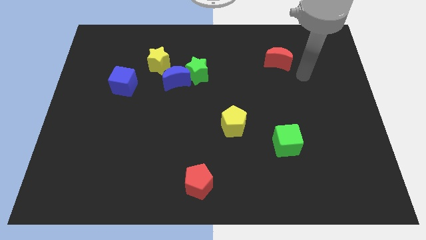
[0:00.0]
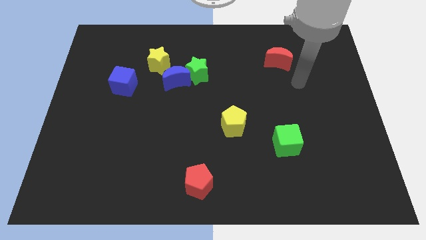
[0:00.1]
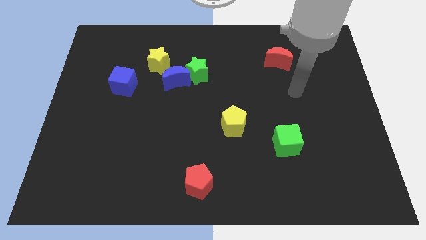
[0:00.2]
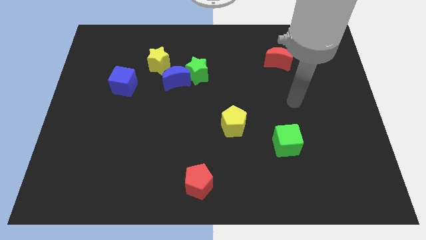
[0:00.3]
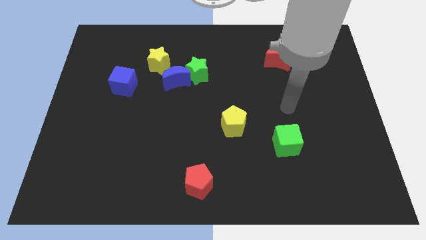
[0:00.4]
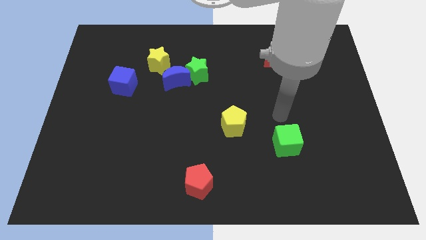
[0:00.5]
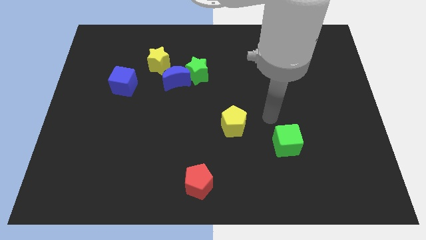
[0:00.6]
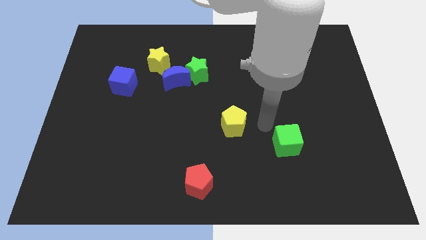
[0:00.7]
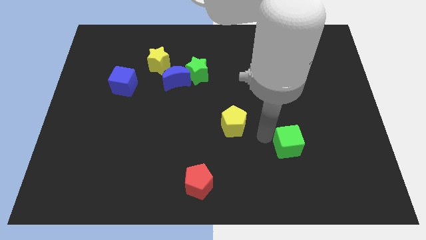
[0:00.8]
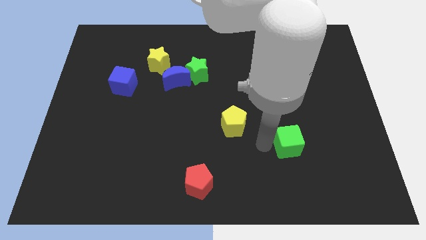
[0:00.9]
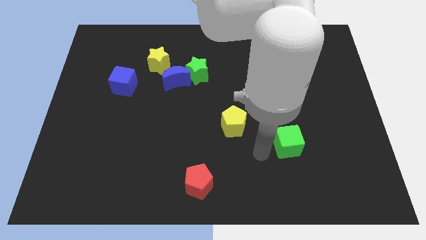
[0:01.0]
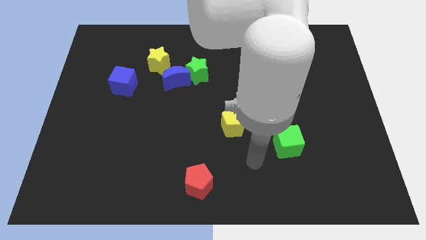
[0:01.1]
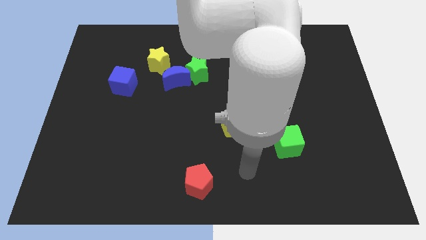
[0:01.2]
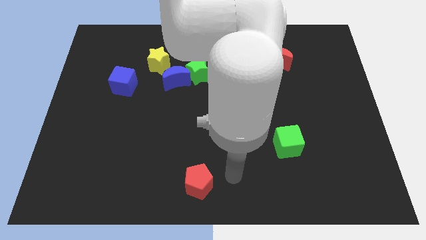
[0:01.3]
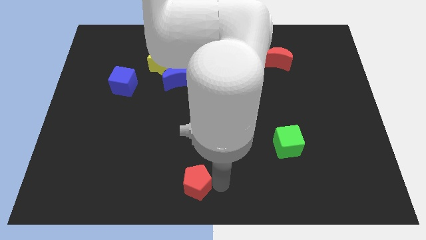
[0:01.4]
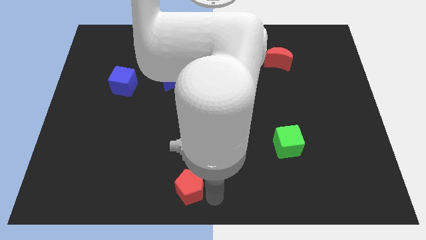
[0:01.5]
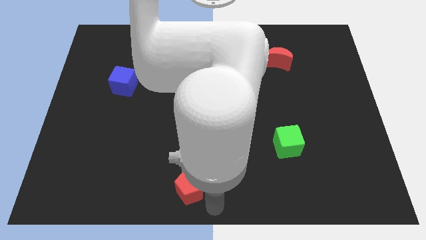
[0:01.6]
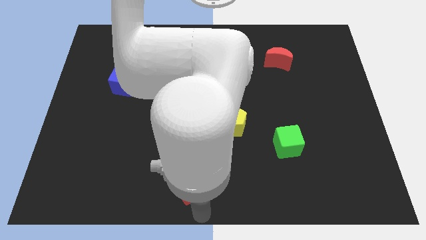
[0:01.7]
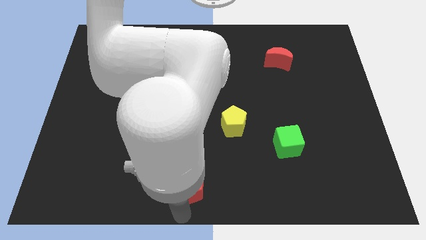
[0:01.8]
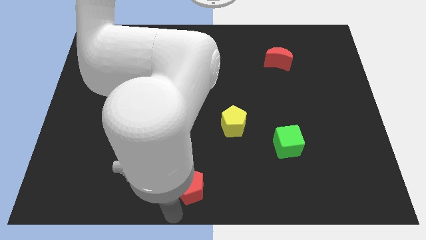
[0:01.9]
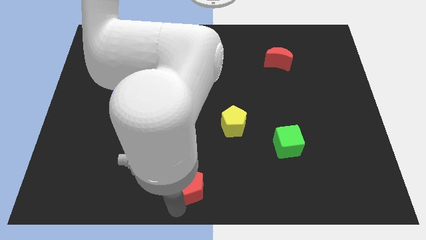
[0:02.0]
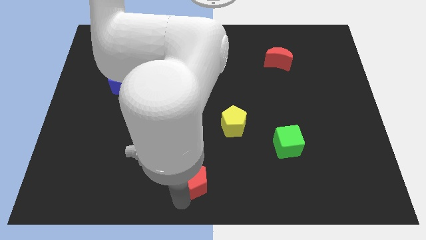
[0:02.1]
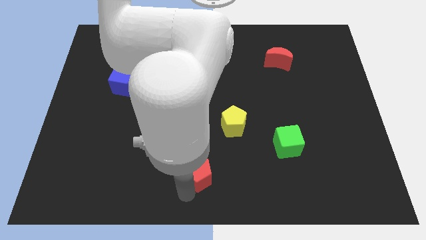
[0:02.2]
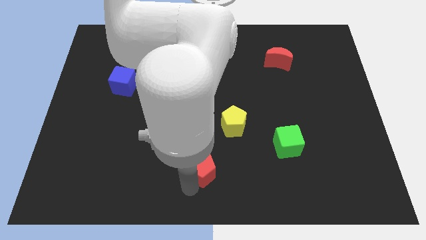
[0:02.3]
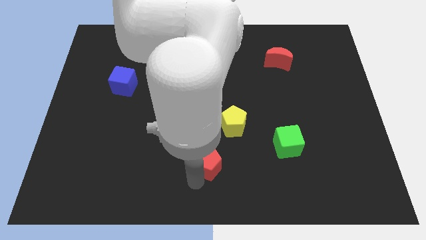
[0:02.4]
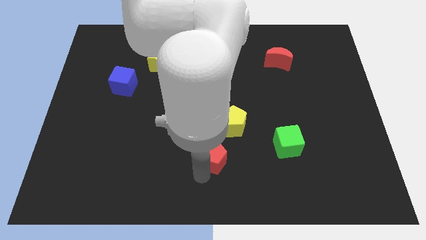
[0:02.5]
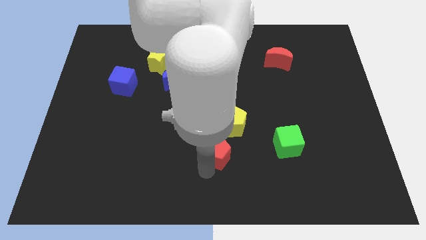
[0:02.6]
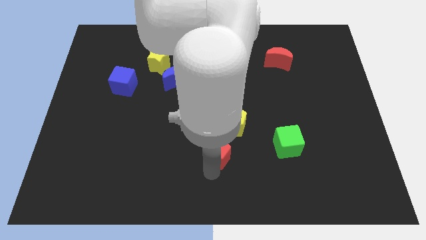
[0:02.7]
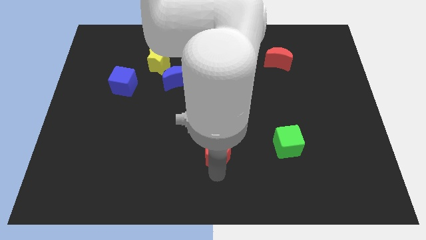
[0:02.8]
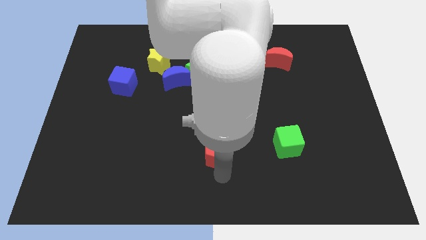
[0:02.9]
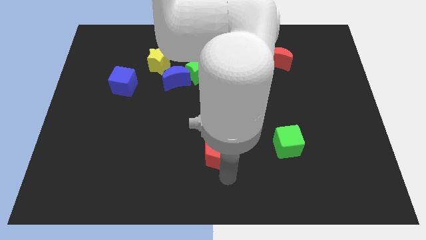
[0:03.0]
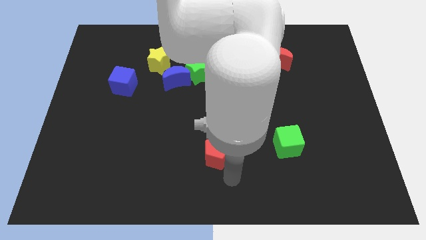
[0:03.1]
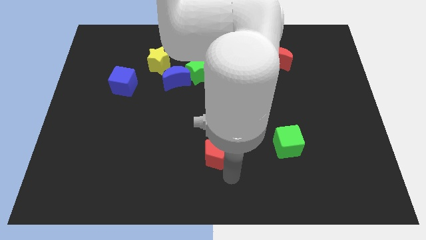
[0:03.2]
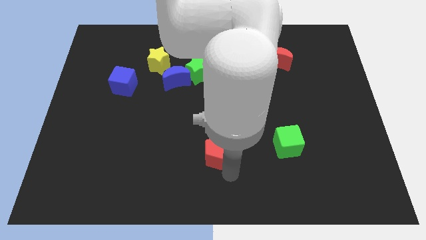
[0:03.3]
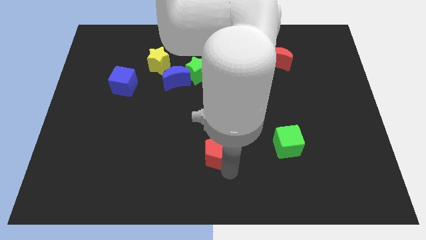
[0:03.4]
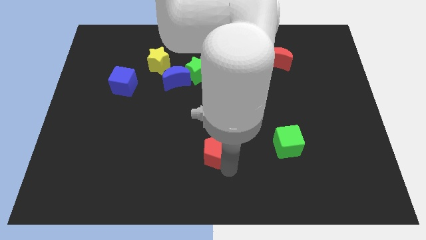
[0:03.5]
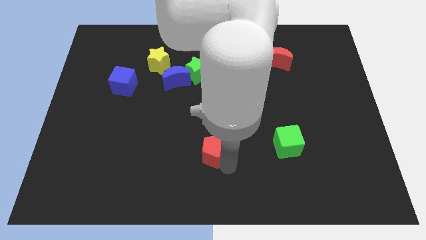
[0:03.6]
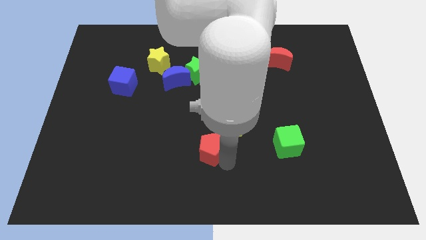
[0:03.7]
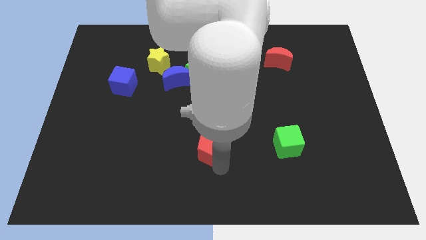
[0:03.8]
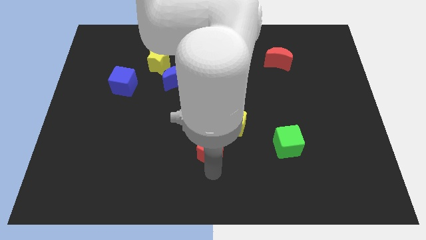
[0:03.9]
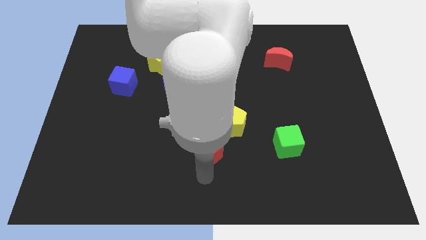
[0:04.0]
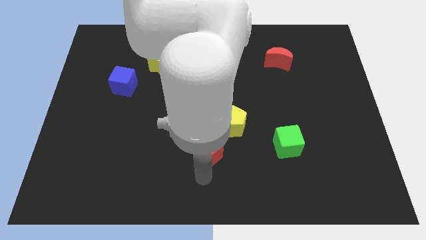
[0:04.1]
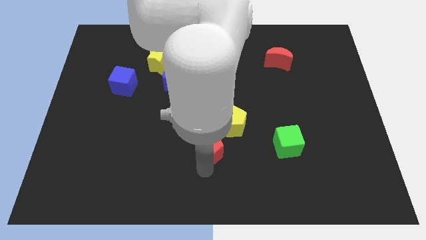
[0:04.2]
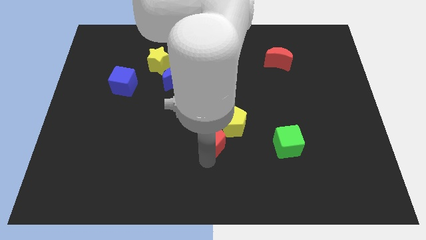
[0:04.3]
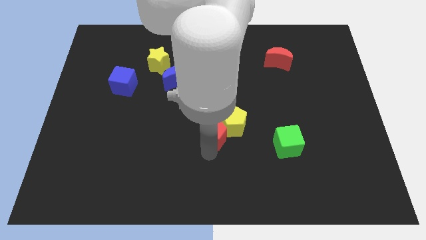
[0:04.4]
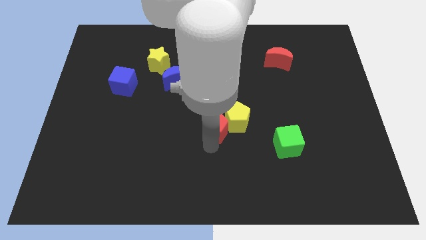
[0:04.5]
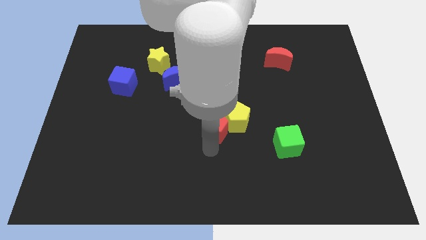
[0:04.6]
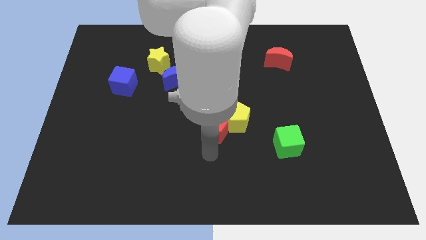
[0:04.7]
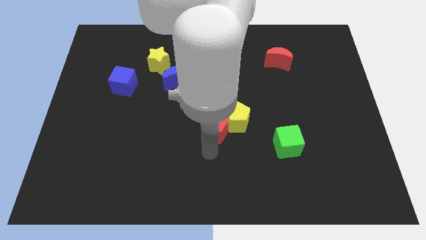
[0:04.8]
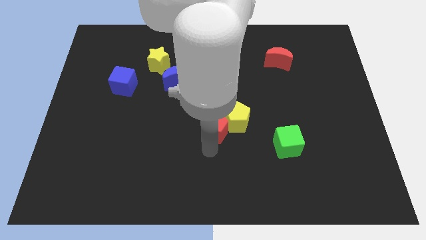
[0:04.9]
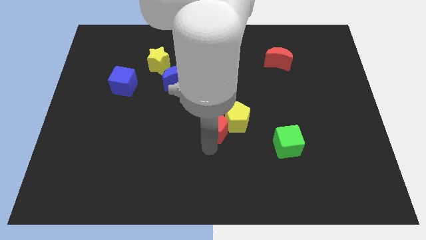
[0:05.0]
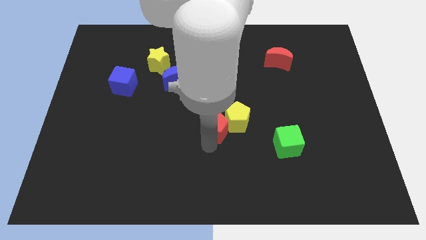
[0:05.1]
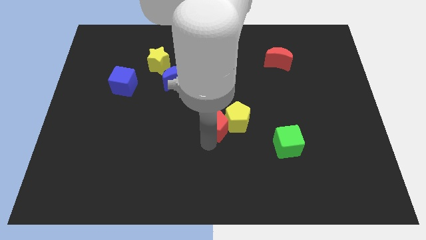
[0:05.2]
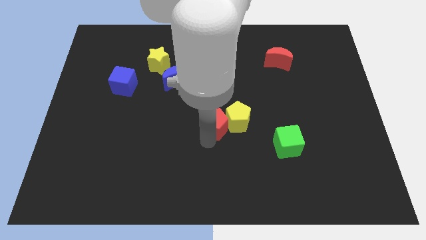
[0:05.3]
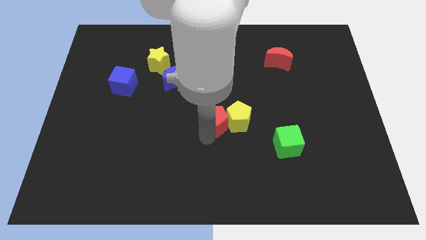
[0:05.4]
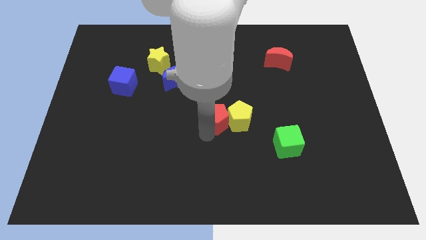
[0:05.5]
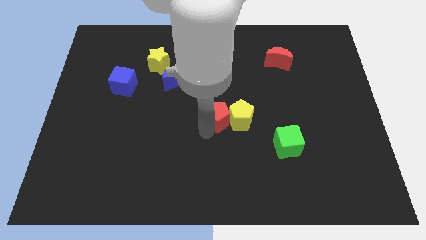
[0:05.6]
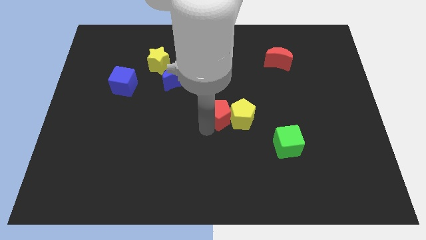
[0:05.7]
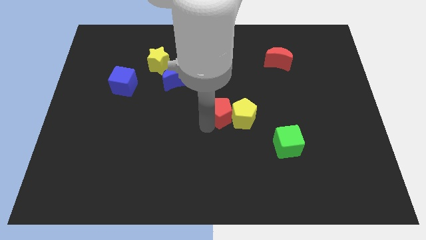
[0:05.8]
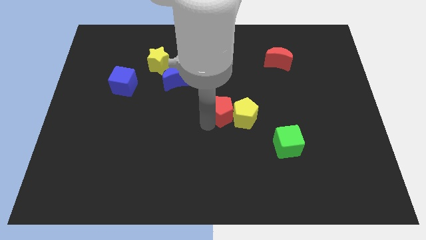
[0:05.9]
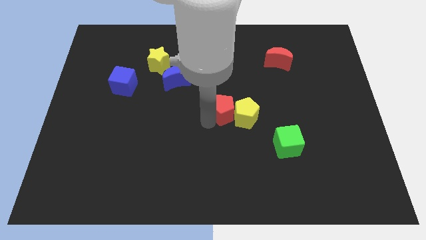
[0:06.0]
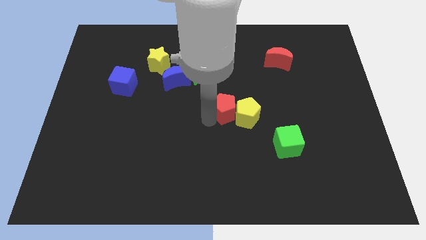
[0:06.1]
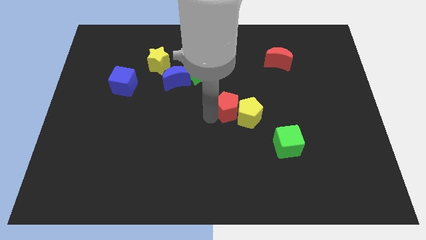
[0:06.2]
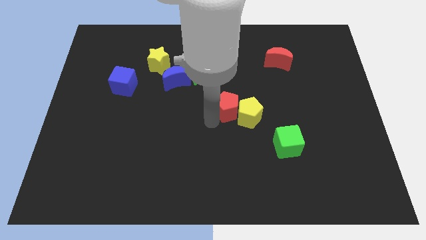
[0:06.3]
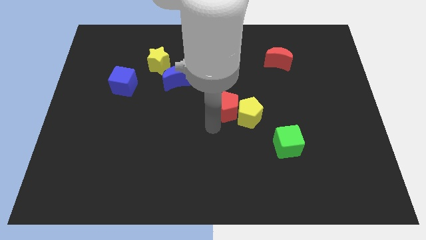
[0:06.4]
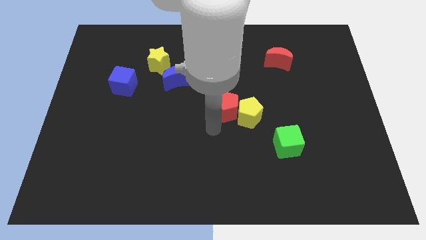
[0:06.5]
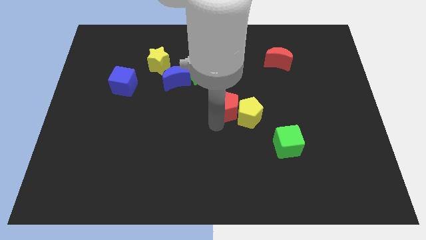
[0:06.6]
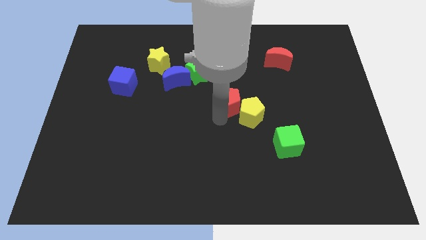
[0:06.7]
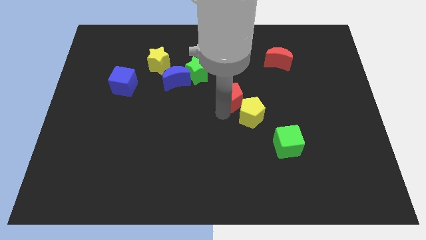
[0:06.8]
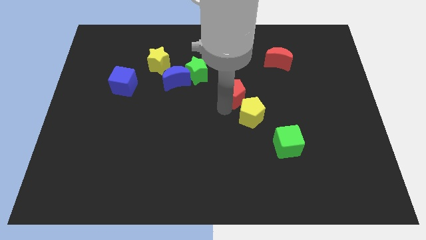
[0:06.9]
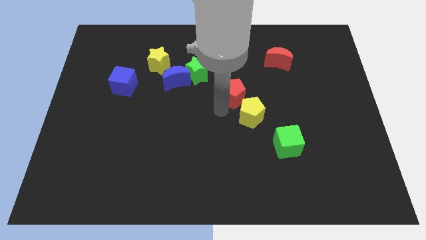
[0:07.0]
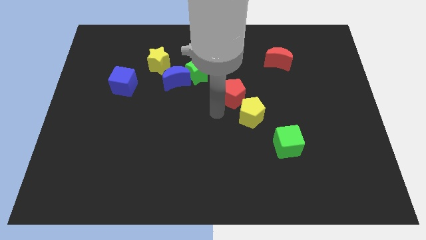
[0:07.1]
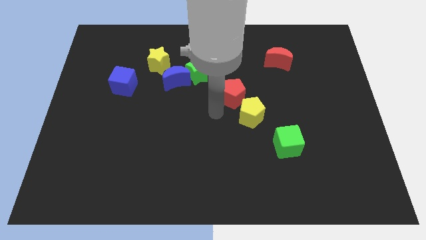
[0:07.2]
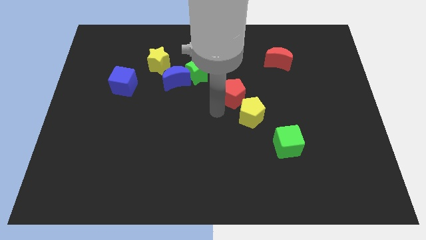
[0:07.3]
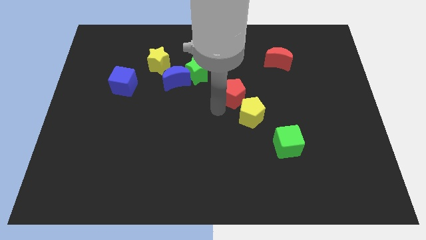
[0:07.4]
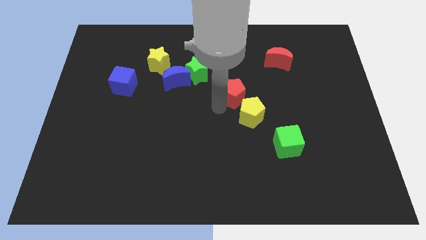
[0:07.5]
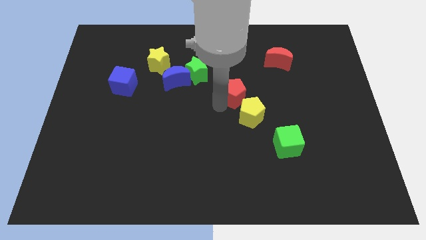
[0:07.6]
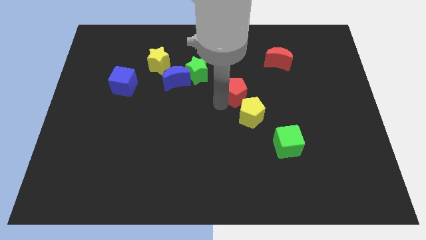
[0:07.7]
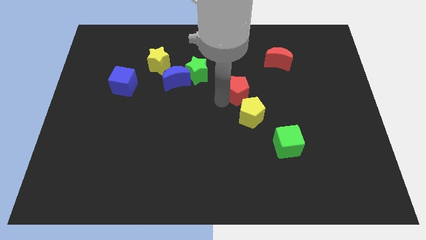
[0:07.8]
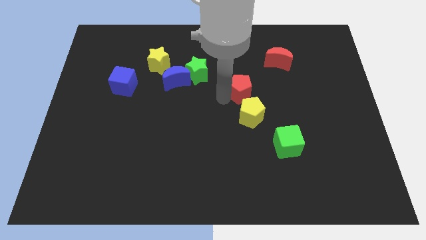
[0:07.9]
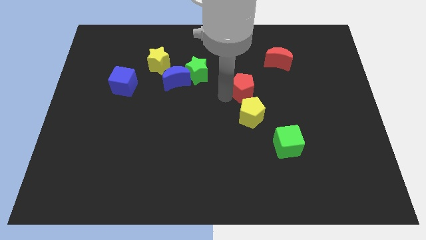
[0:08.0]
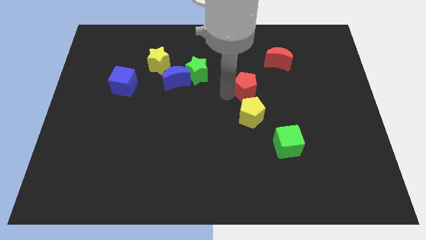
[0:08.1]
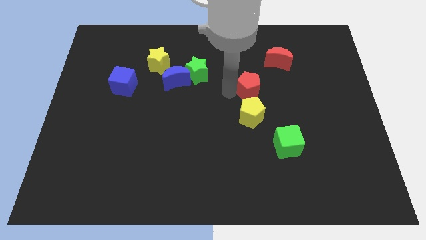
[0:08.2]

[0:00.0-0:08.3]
slide the red pentagon to the bottom left of the red moon
